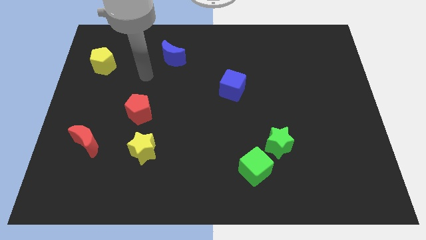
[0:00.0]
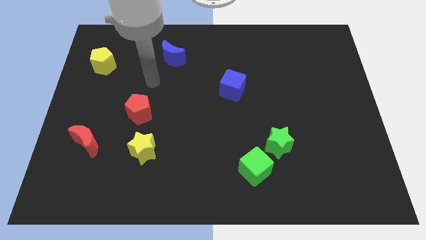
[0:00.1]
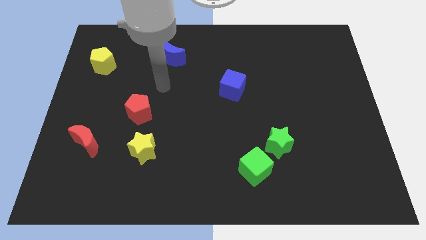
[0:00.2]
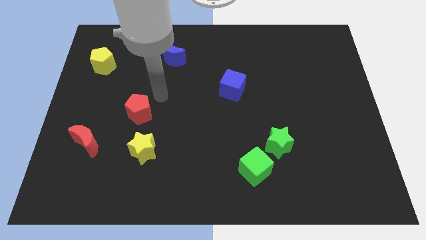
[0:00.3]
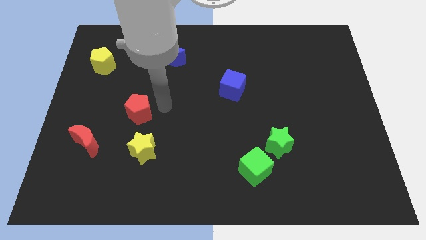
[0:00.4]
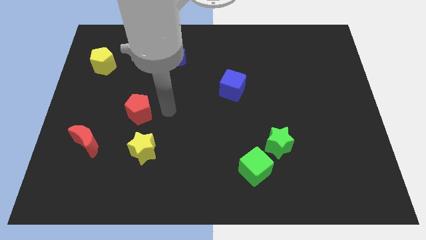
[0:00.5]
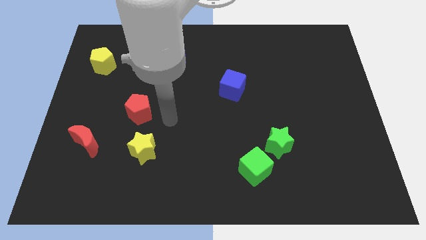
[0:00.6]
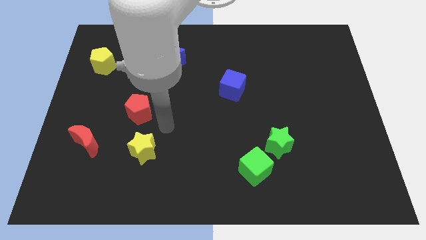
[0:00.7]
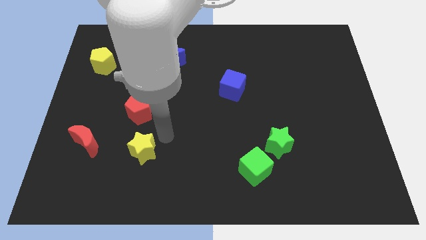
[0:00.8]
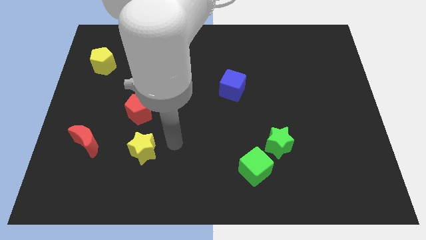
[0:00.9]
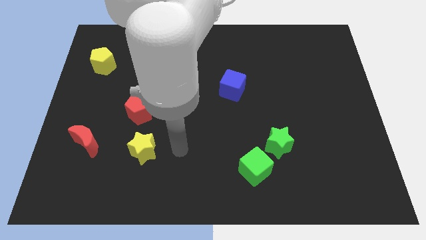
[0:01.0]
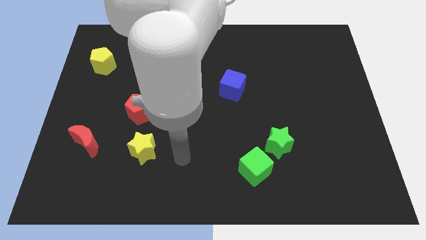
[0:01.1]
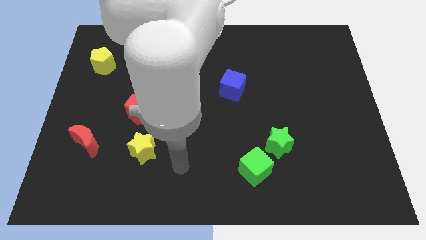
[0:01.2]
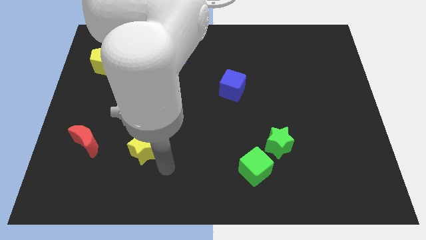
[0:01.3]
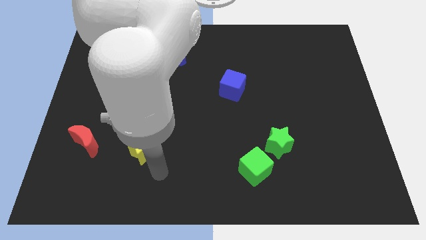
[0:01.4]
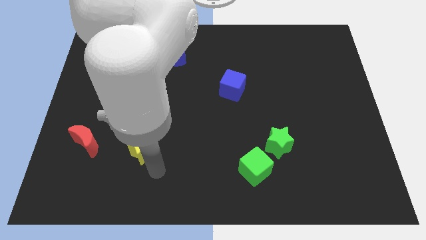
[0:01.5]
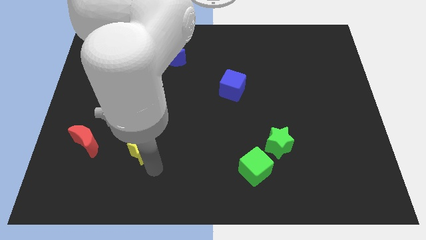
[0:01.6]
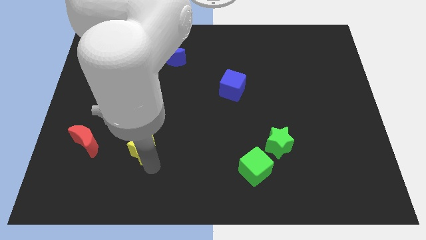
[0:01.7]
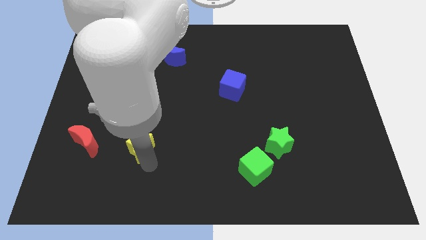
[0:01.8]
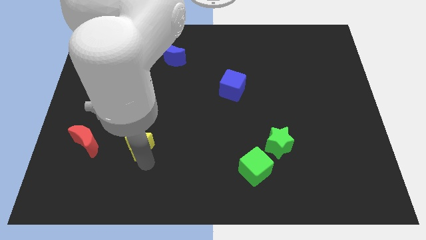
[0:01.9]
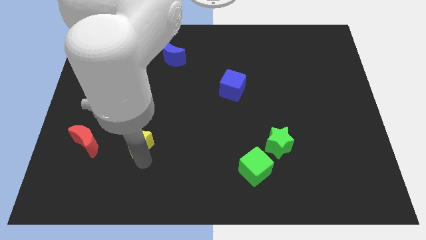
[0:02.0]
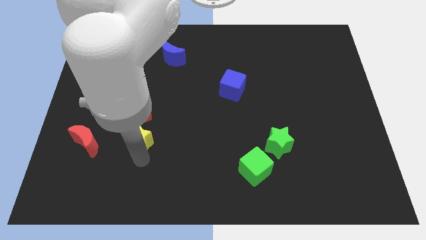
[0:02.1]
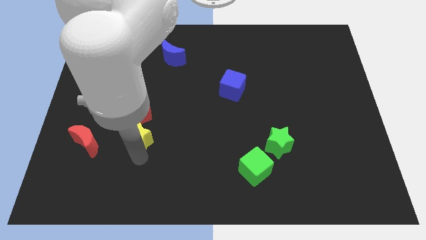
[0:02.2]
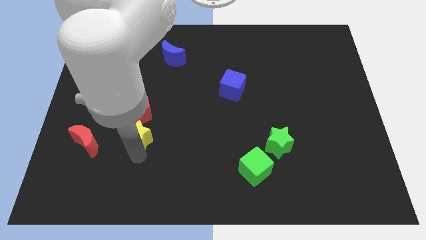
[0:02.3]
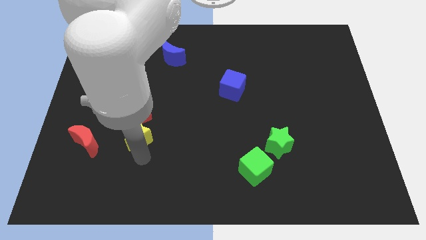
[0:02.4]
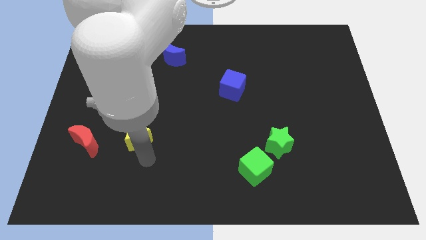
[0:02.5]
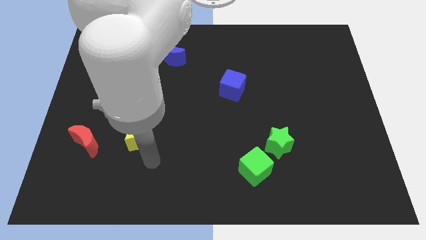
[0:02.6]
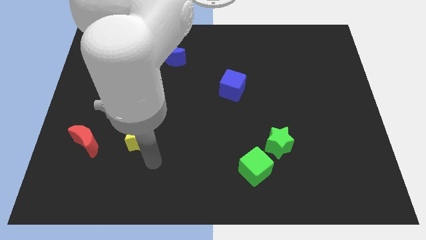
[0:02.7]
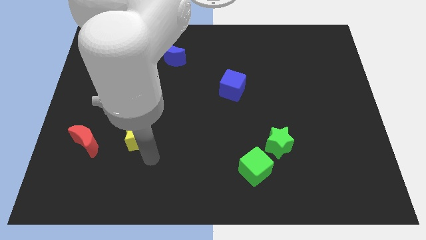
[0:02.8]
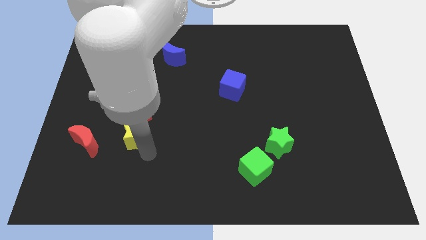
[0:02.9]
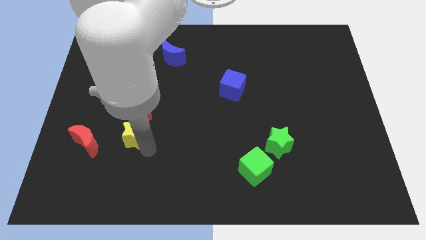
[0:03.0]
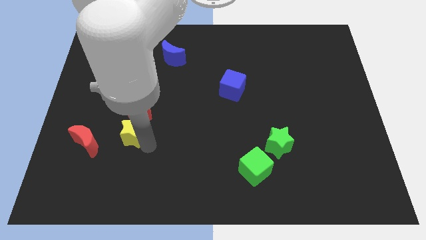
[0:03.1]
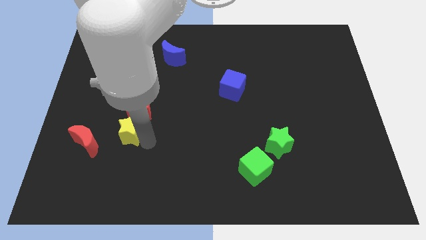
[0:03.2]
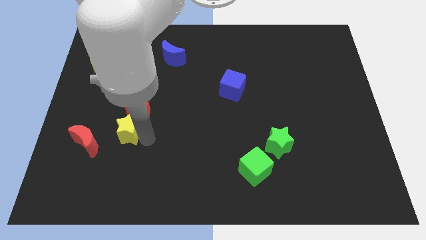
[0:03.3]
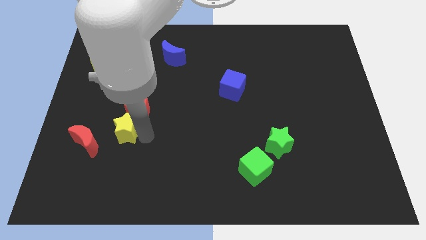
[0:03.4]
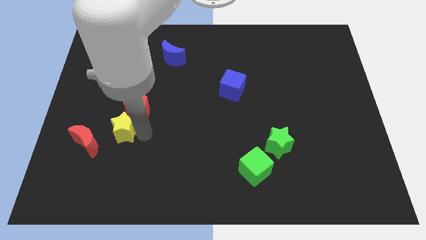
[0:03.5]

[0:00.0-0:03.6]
move the yellow star upwards and to the left a little bit

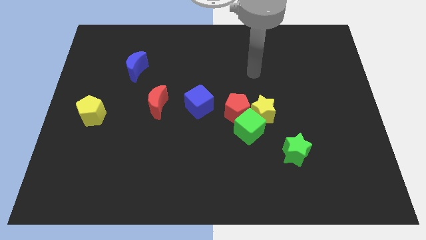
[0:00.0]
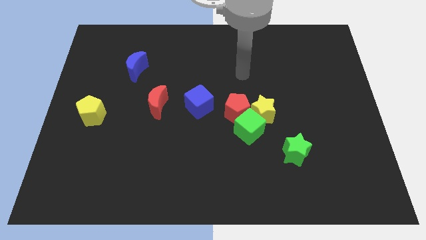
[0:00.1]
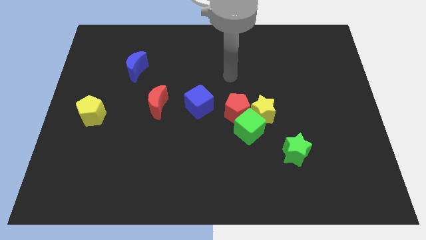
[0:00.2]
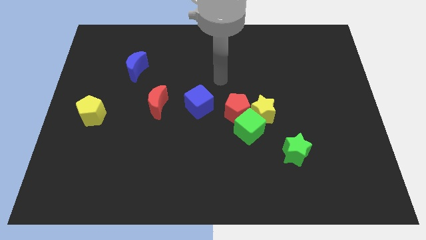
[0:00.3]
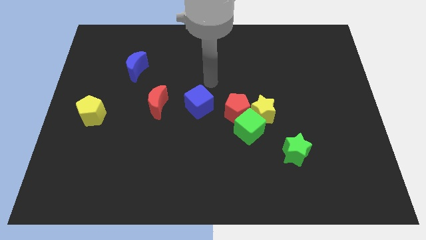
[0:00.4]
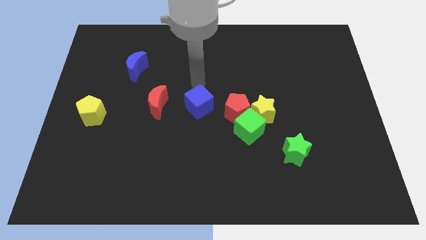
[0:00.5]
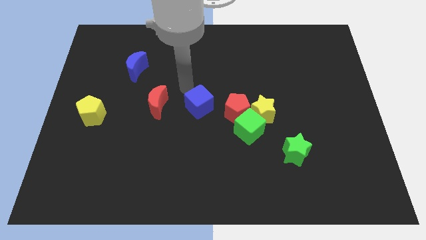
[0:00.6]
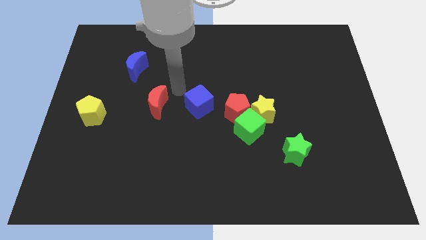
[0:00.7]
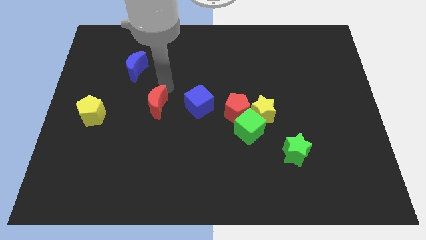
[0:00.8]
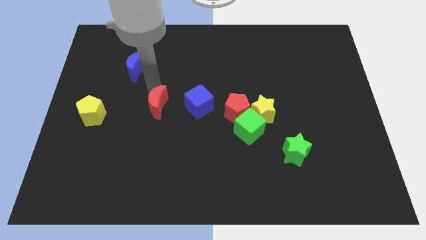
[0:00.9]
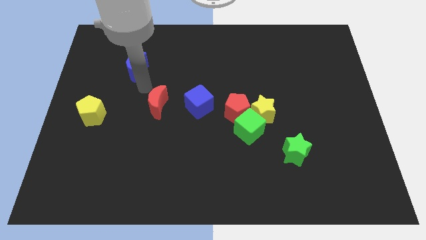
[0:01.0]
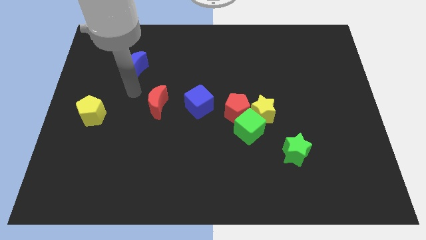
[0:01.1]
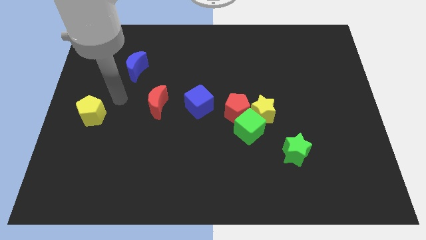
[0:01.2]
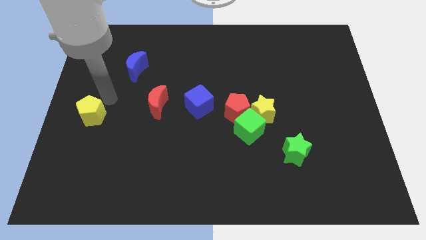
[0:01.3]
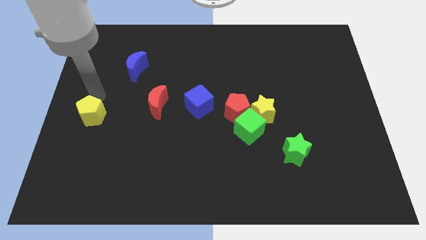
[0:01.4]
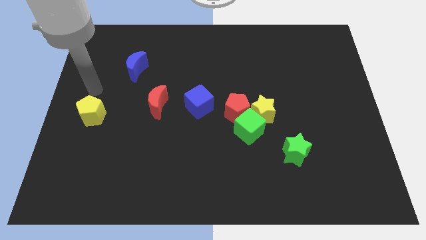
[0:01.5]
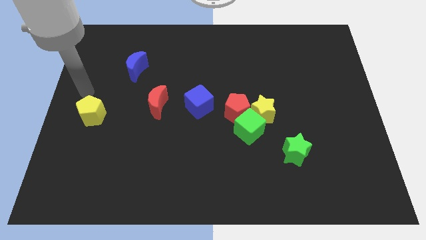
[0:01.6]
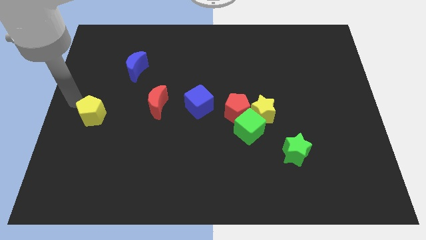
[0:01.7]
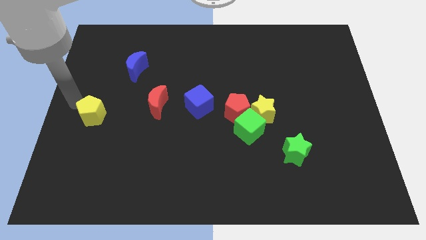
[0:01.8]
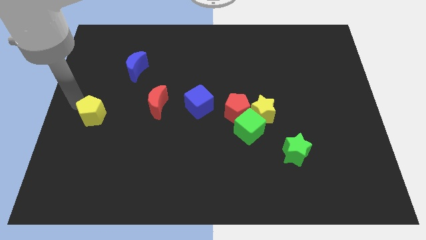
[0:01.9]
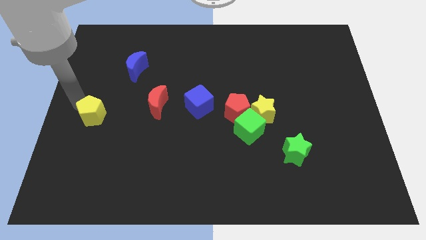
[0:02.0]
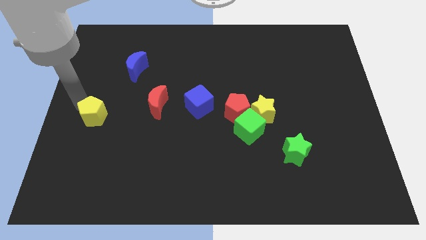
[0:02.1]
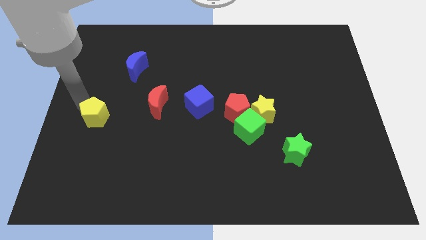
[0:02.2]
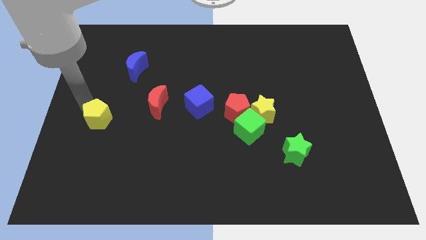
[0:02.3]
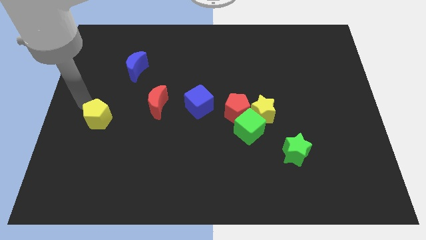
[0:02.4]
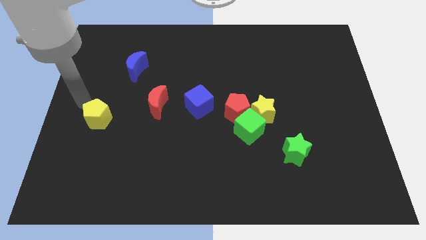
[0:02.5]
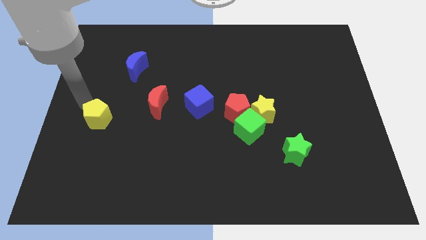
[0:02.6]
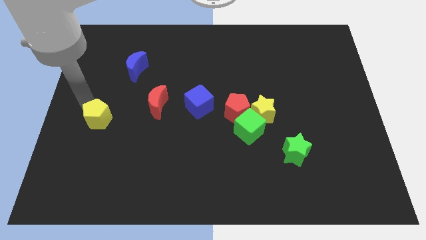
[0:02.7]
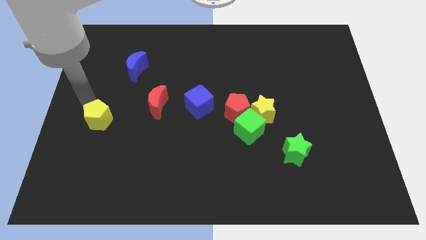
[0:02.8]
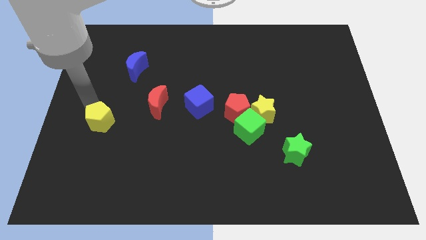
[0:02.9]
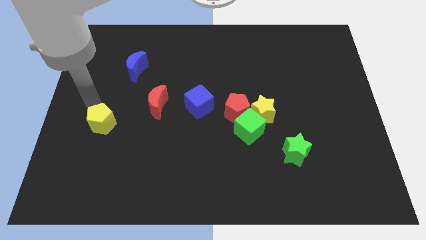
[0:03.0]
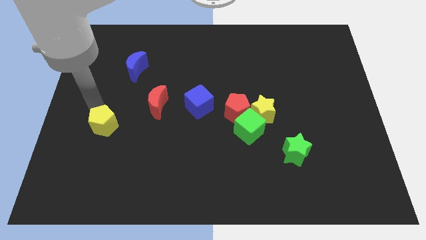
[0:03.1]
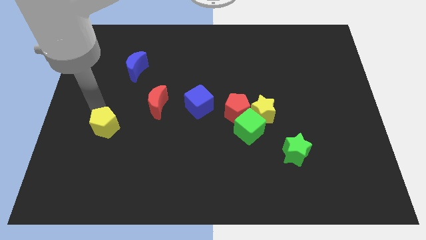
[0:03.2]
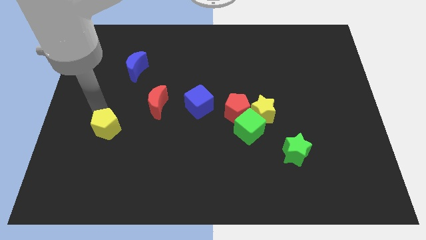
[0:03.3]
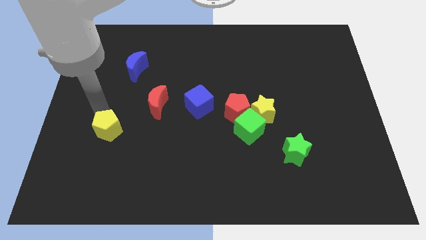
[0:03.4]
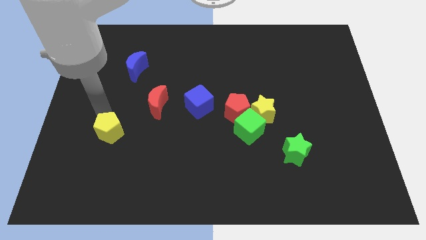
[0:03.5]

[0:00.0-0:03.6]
move the yellow pentagon a bit diagonally down and right

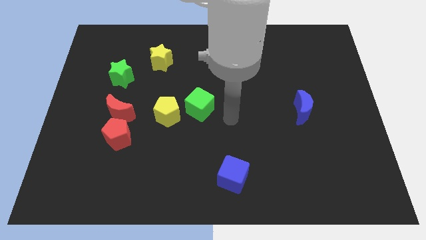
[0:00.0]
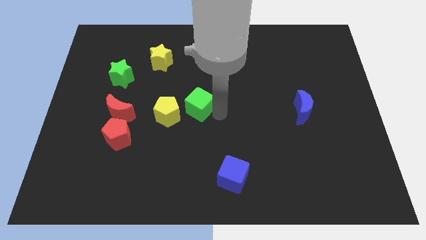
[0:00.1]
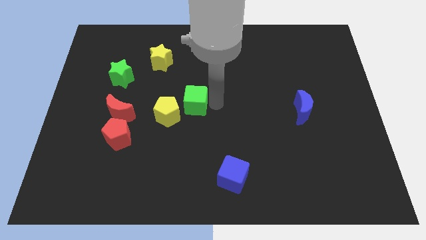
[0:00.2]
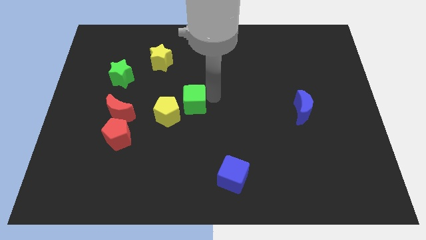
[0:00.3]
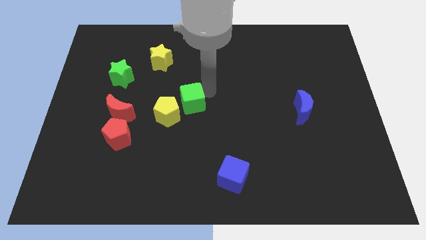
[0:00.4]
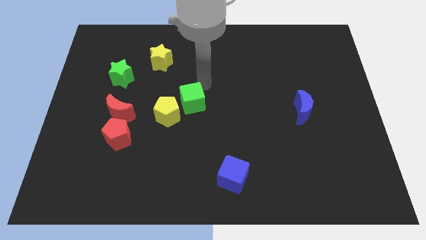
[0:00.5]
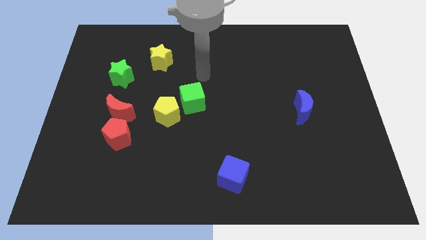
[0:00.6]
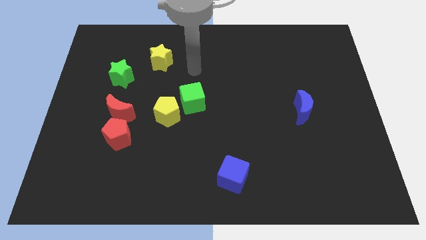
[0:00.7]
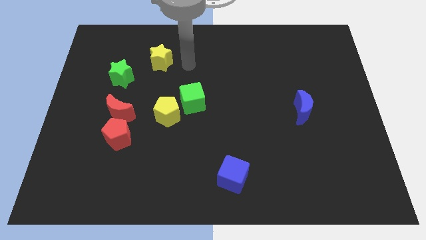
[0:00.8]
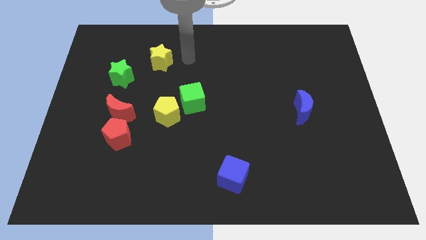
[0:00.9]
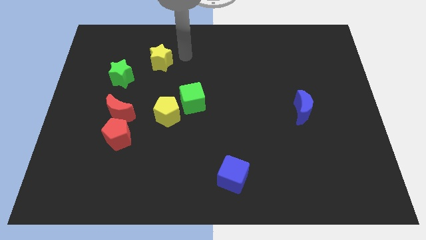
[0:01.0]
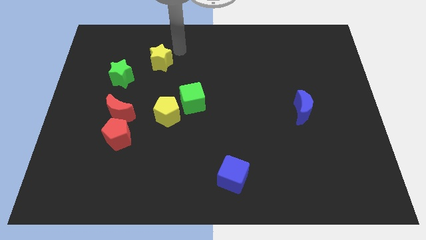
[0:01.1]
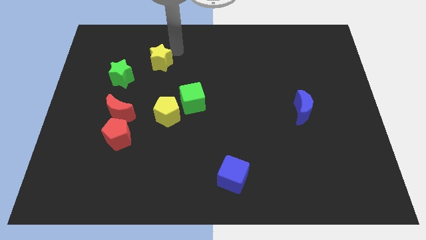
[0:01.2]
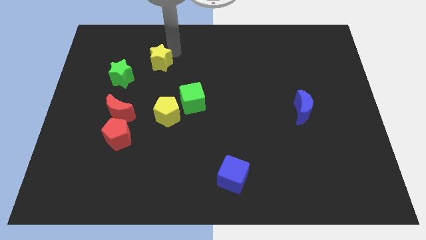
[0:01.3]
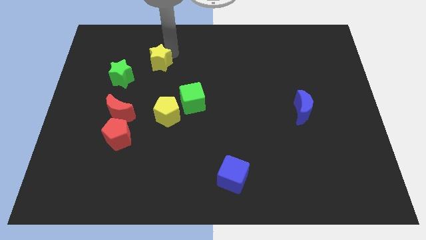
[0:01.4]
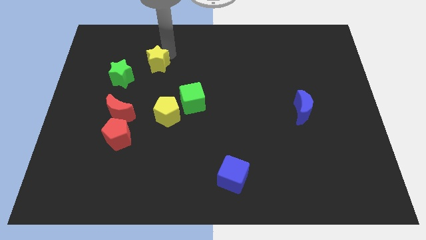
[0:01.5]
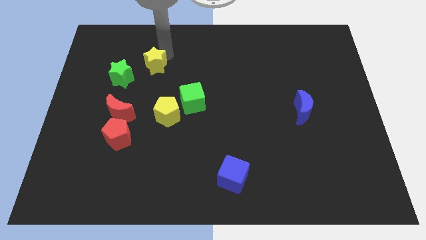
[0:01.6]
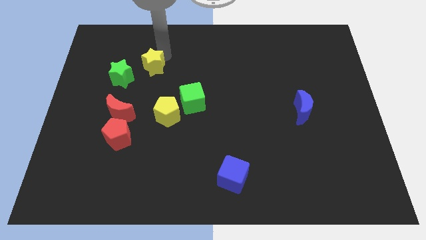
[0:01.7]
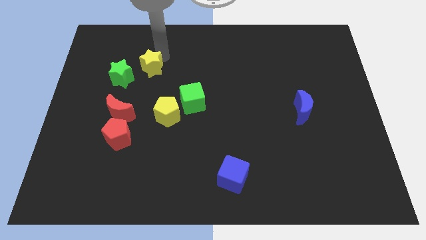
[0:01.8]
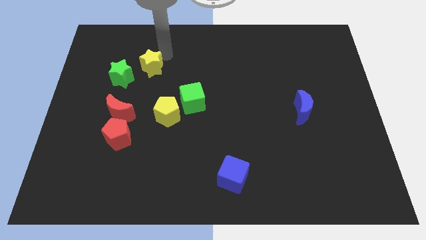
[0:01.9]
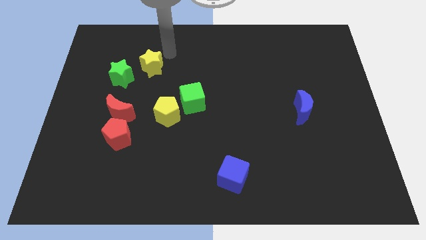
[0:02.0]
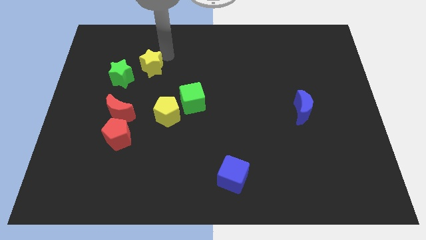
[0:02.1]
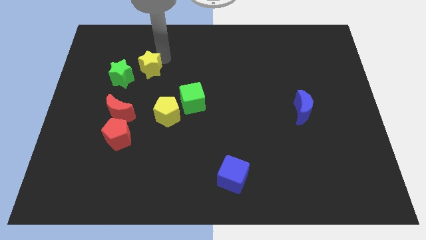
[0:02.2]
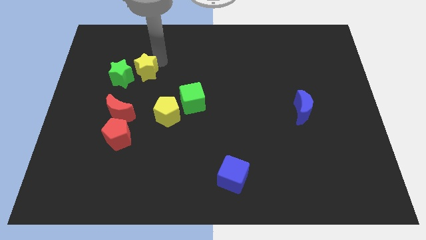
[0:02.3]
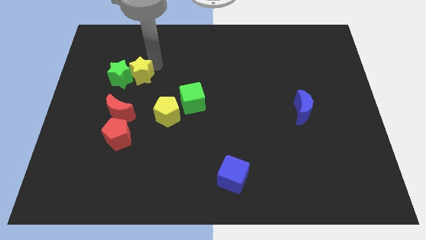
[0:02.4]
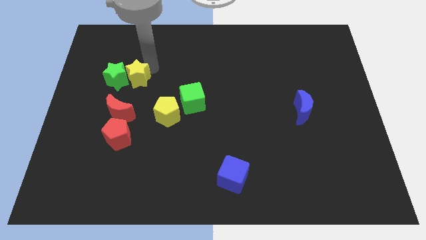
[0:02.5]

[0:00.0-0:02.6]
slightly move the yellow star down and then left
